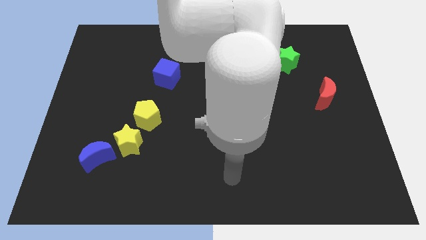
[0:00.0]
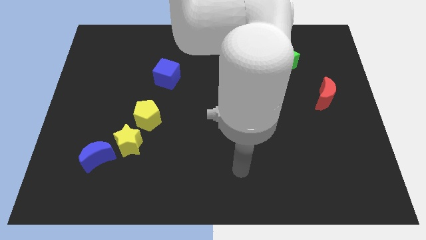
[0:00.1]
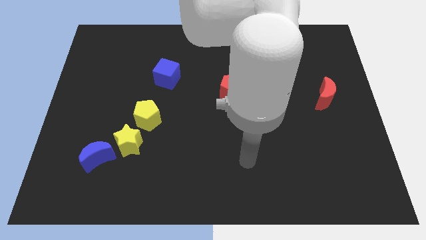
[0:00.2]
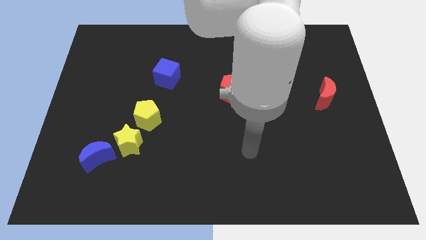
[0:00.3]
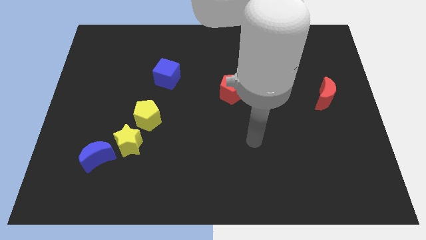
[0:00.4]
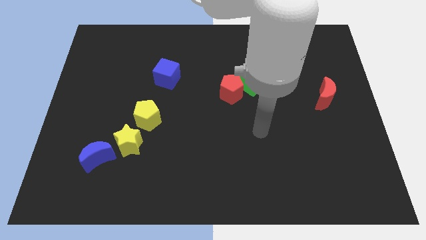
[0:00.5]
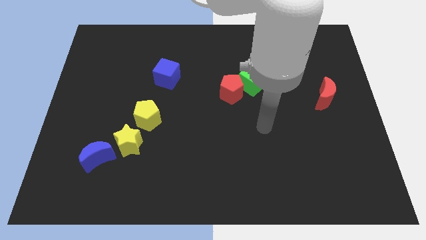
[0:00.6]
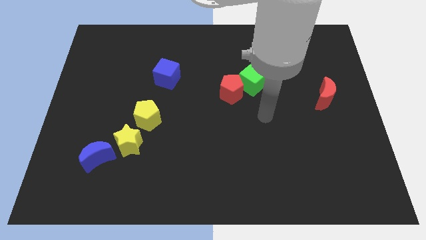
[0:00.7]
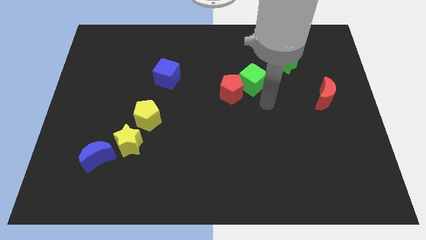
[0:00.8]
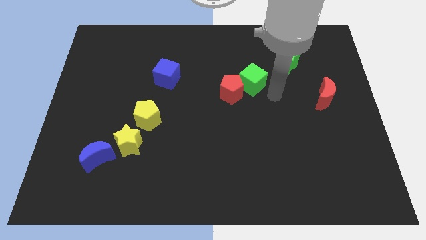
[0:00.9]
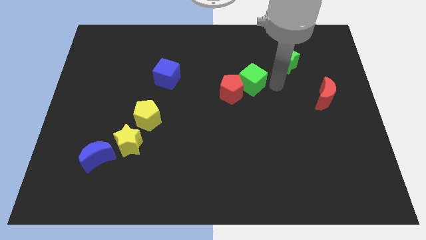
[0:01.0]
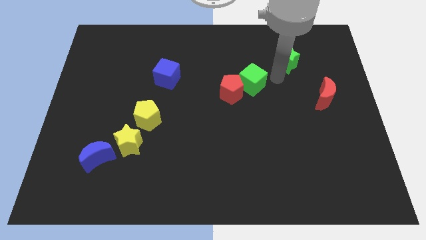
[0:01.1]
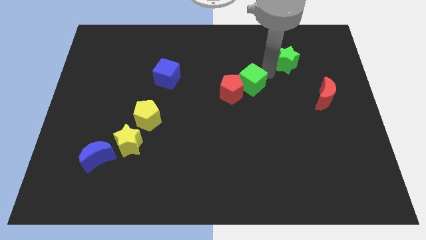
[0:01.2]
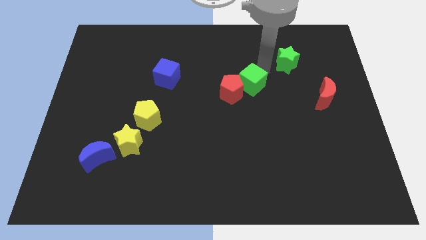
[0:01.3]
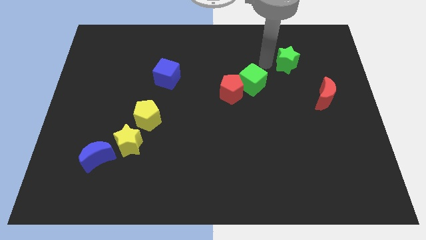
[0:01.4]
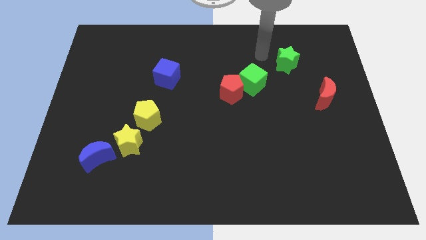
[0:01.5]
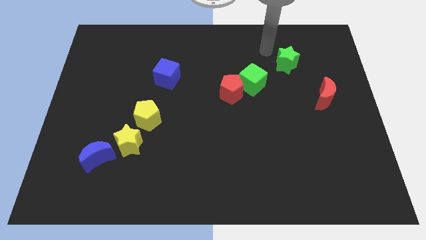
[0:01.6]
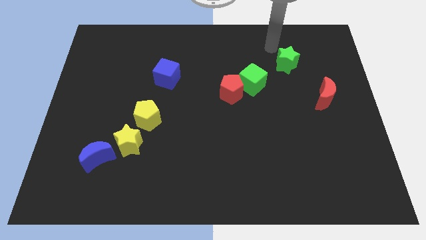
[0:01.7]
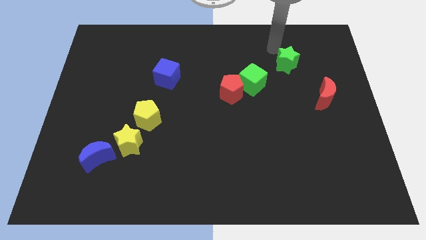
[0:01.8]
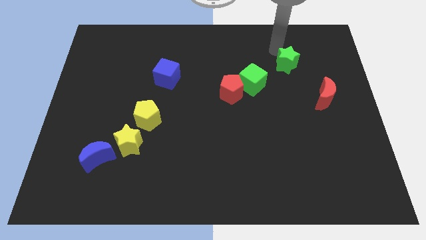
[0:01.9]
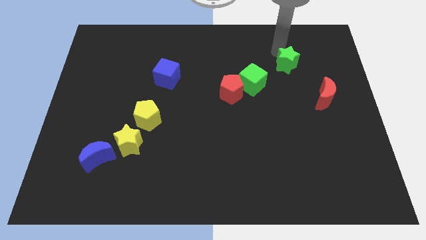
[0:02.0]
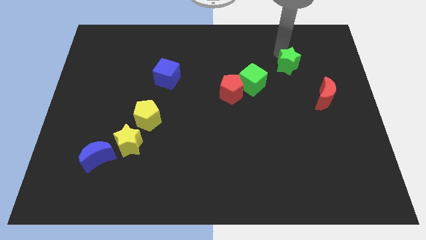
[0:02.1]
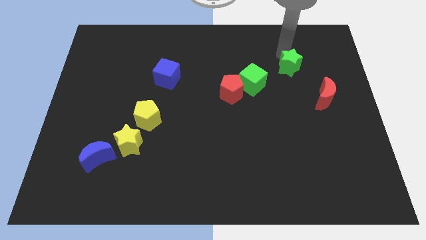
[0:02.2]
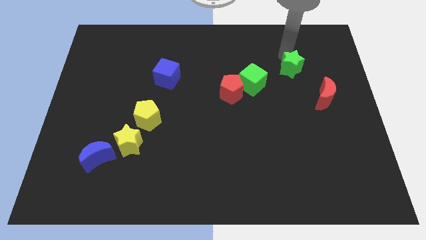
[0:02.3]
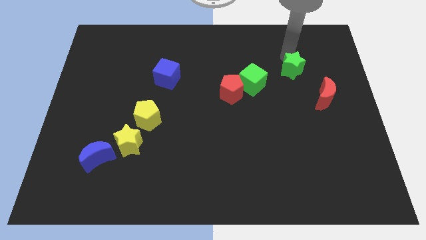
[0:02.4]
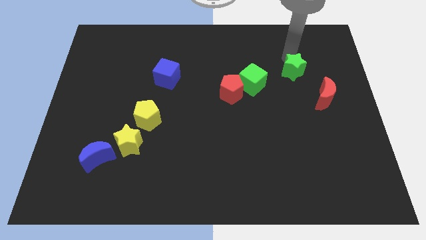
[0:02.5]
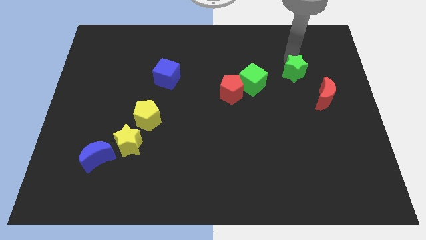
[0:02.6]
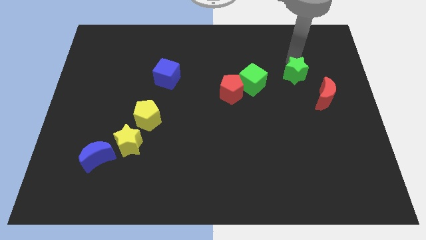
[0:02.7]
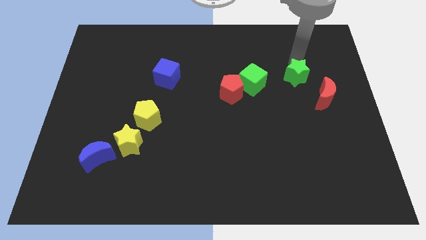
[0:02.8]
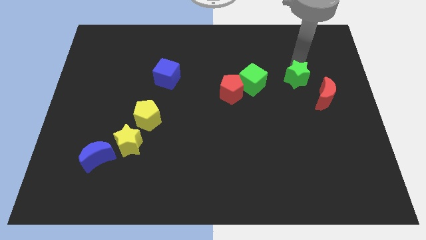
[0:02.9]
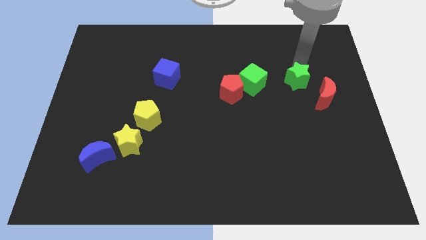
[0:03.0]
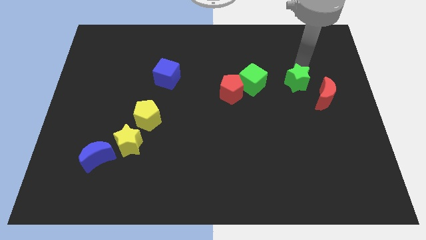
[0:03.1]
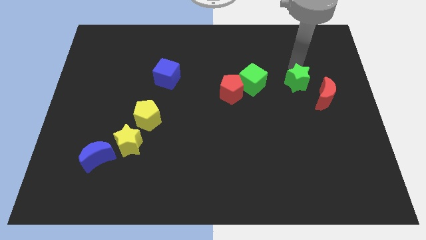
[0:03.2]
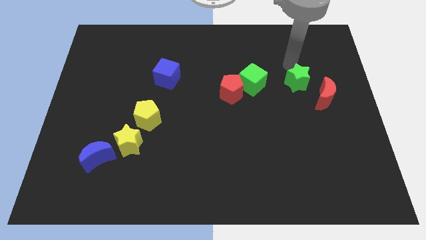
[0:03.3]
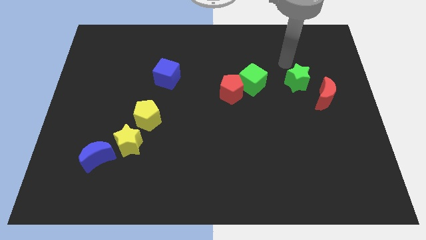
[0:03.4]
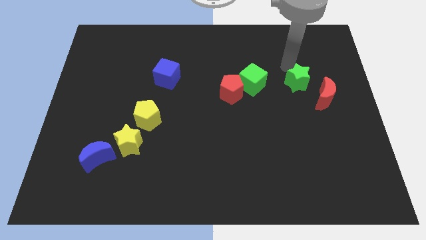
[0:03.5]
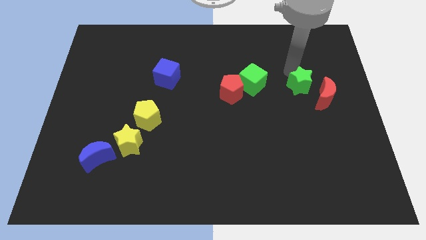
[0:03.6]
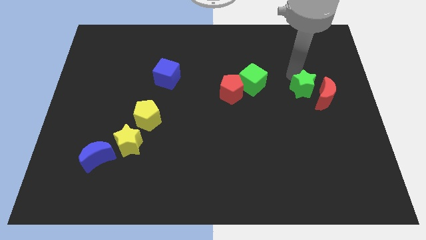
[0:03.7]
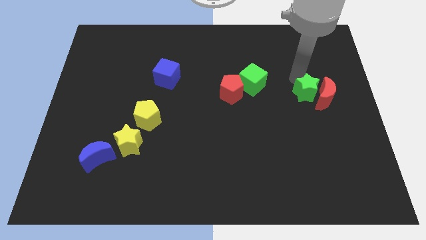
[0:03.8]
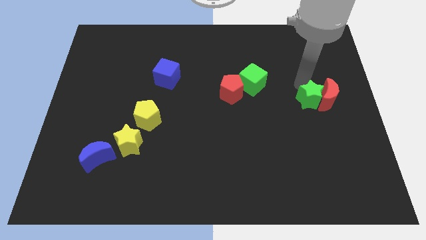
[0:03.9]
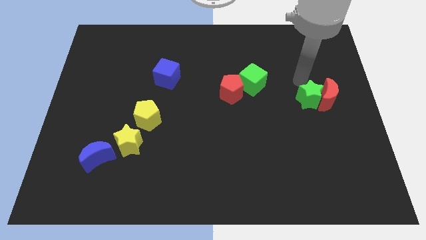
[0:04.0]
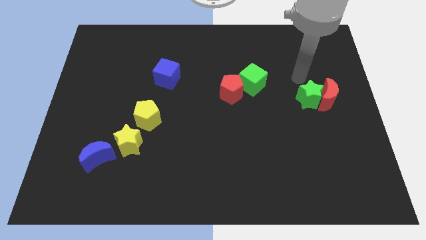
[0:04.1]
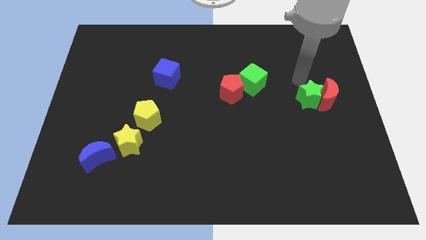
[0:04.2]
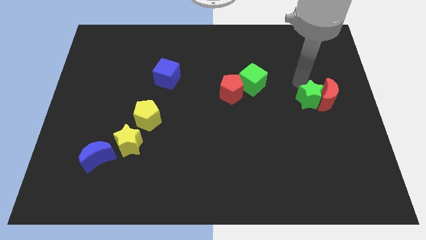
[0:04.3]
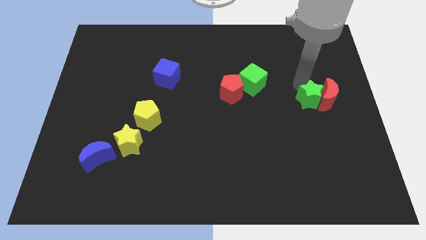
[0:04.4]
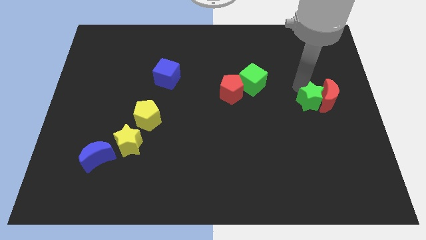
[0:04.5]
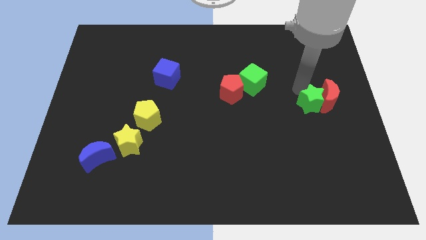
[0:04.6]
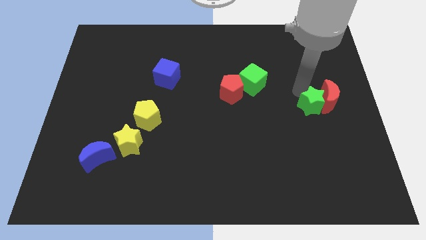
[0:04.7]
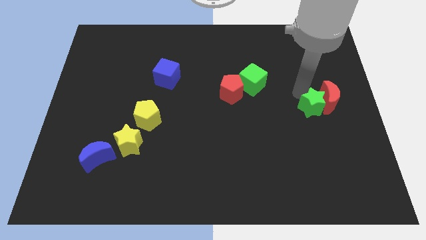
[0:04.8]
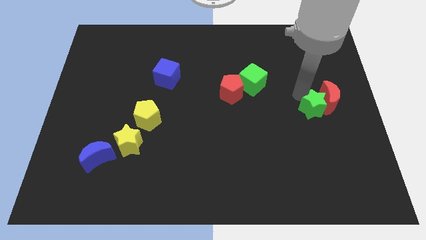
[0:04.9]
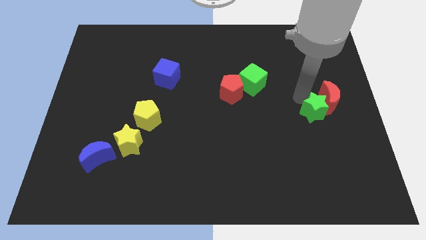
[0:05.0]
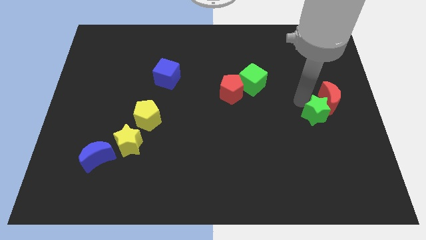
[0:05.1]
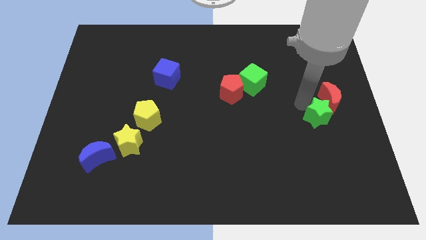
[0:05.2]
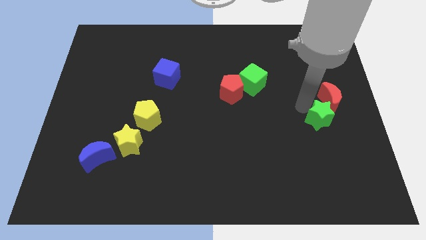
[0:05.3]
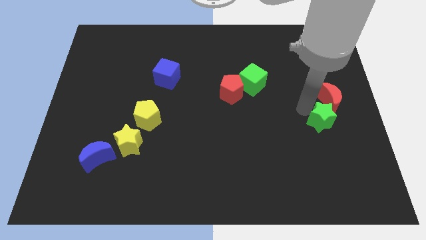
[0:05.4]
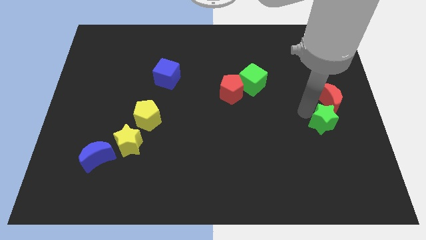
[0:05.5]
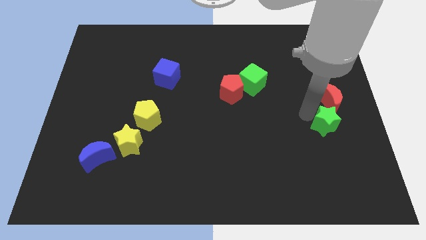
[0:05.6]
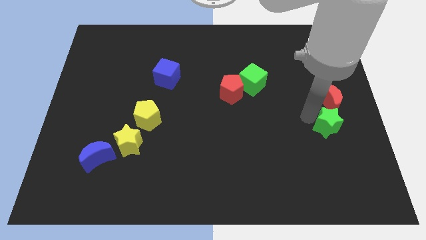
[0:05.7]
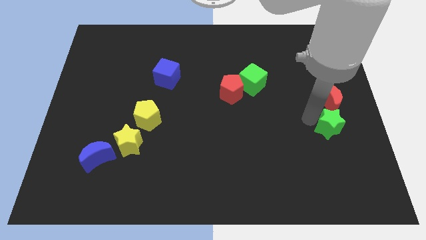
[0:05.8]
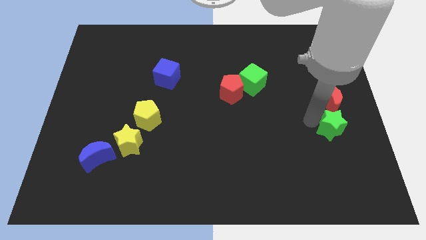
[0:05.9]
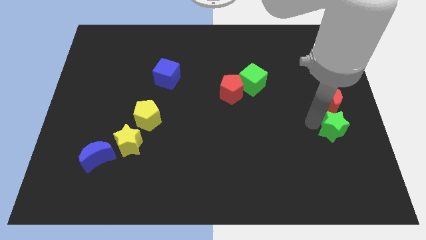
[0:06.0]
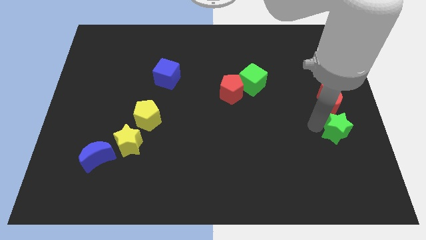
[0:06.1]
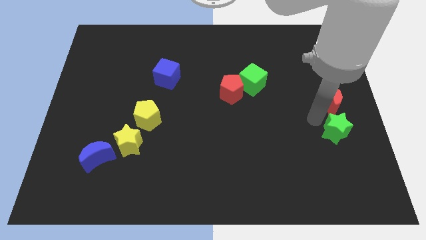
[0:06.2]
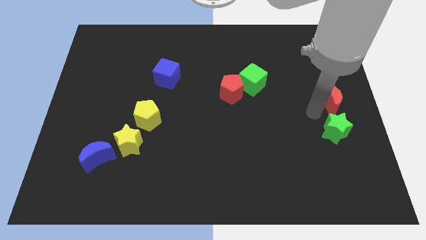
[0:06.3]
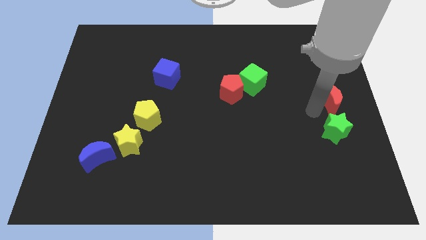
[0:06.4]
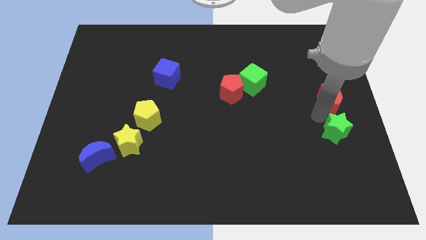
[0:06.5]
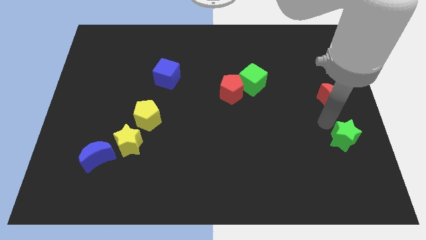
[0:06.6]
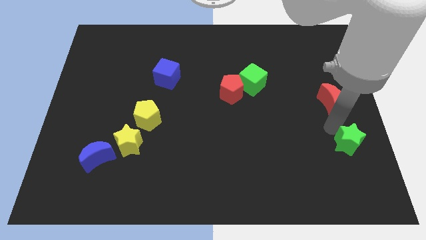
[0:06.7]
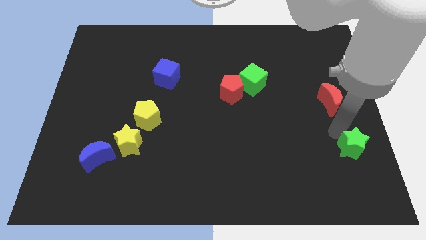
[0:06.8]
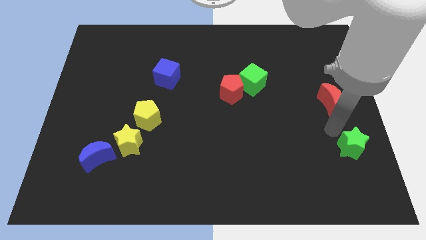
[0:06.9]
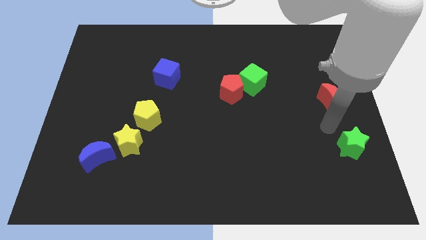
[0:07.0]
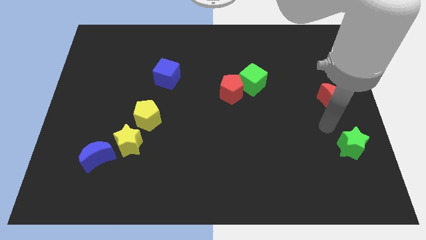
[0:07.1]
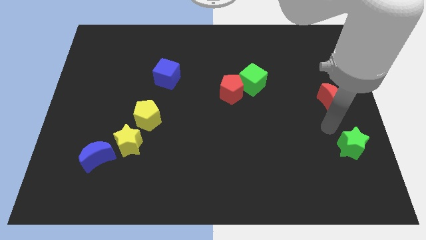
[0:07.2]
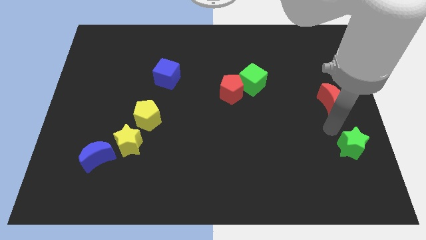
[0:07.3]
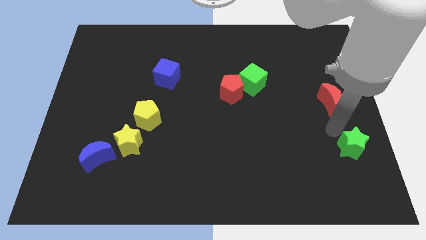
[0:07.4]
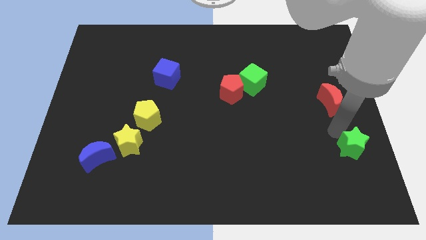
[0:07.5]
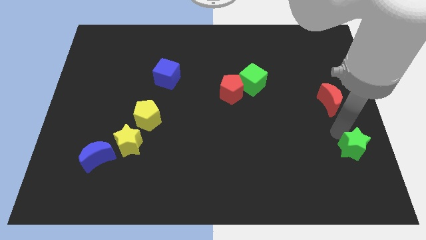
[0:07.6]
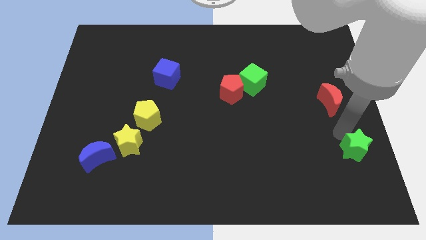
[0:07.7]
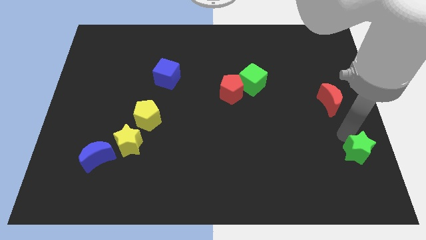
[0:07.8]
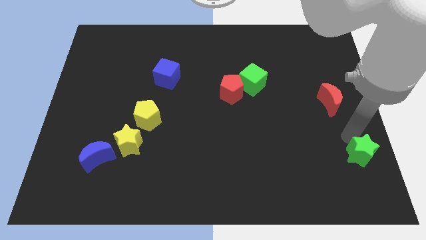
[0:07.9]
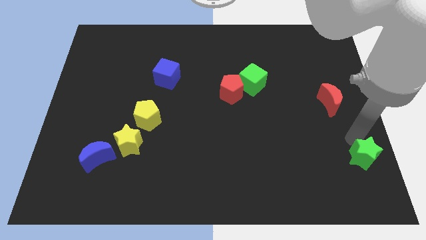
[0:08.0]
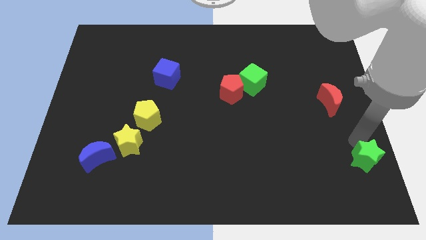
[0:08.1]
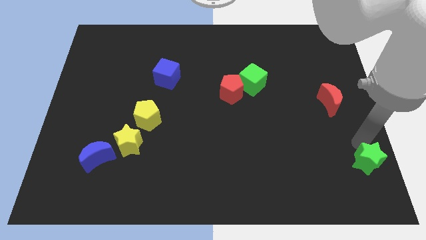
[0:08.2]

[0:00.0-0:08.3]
push the green star to the bottom right
